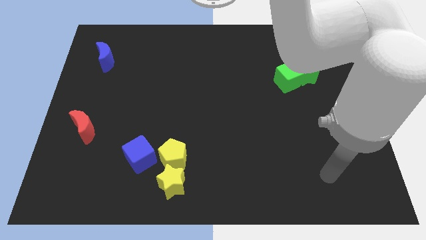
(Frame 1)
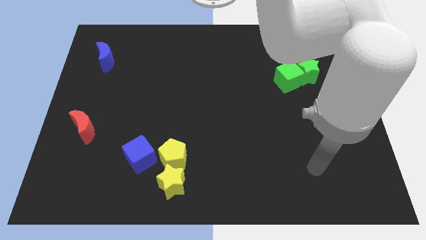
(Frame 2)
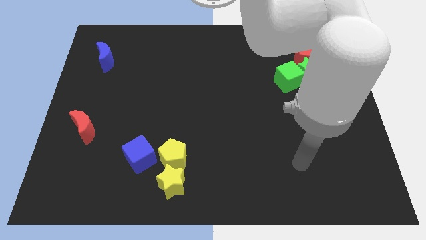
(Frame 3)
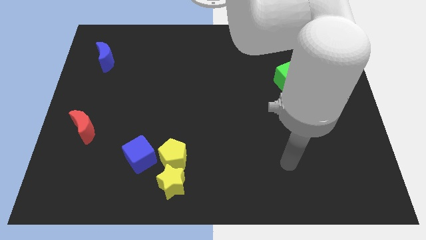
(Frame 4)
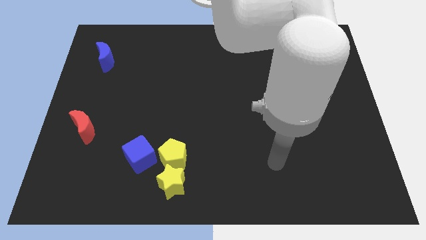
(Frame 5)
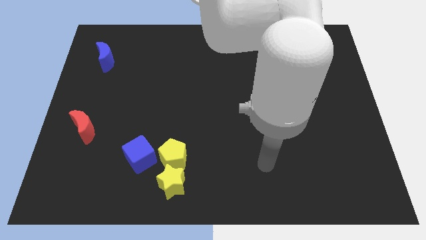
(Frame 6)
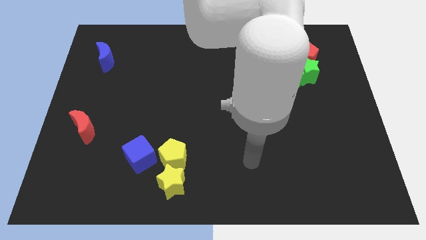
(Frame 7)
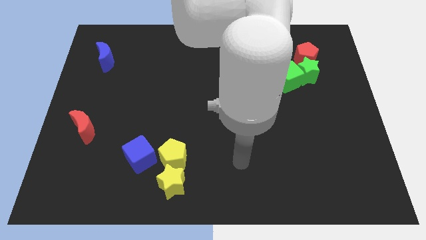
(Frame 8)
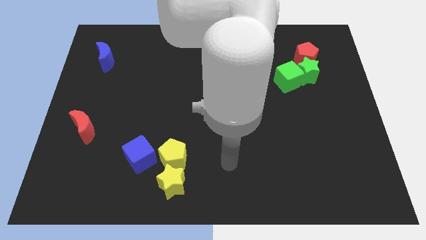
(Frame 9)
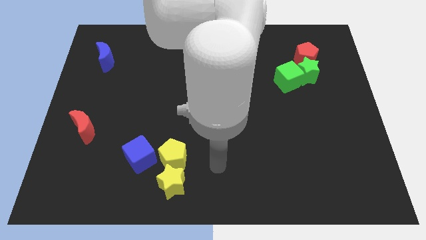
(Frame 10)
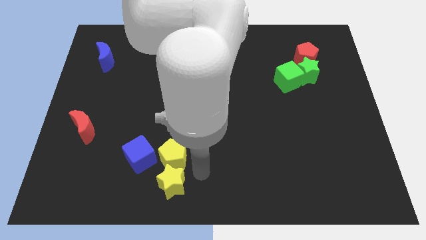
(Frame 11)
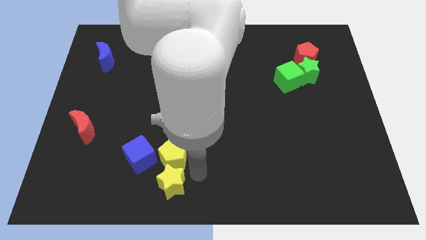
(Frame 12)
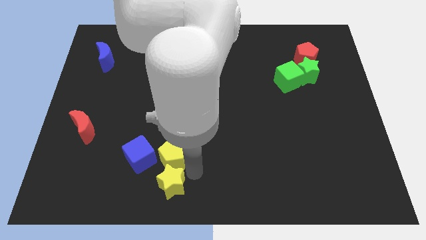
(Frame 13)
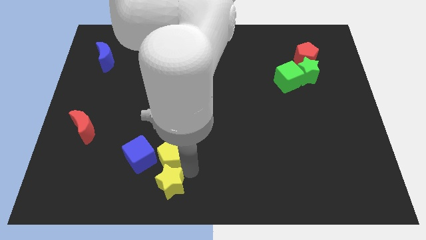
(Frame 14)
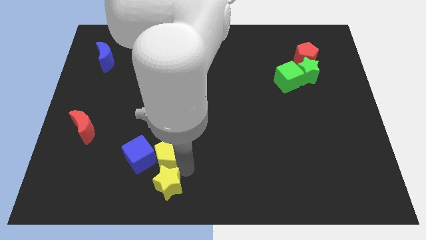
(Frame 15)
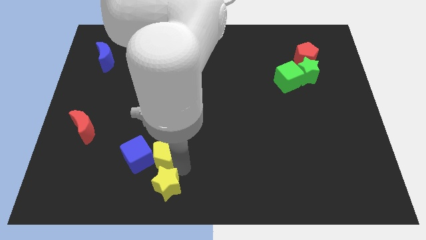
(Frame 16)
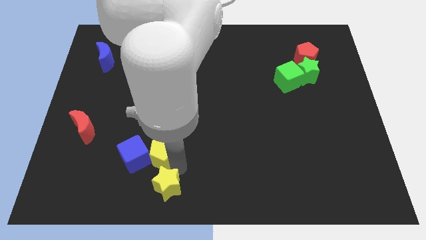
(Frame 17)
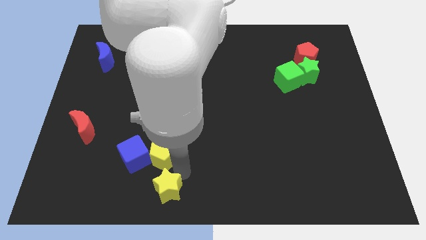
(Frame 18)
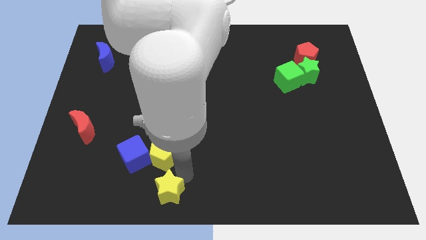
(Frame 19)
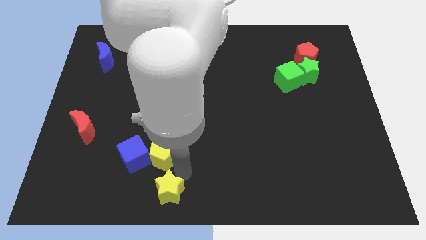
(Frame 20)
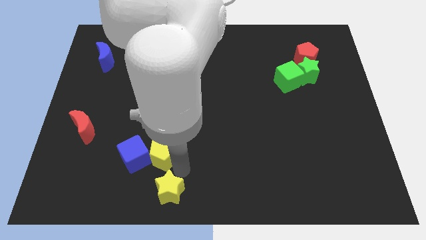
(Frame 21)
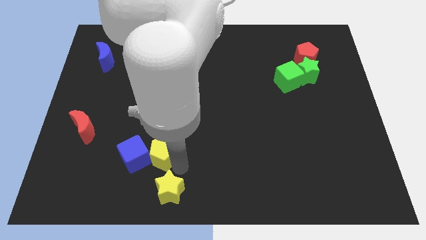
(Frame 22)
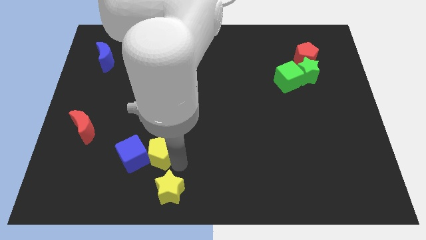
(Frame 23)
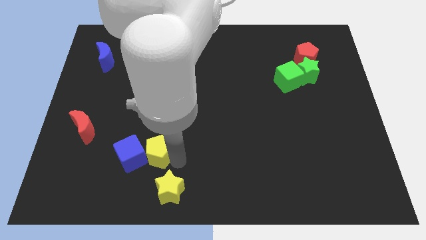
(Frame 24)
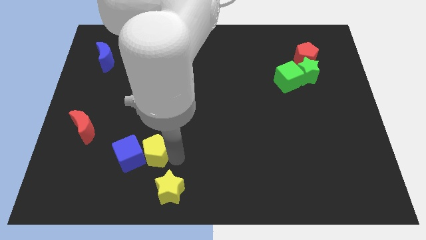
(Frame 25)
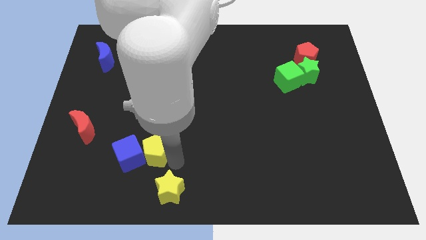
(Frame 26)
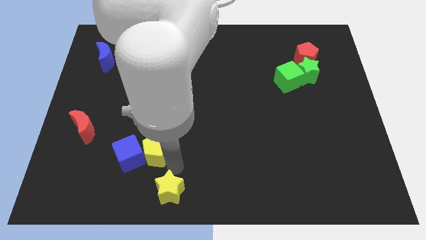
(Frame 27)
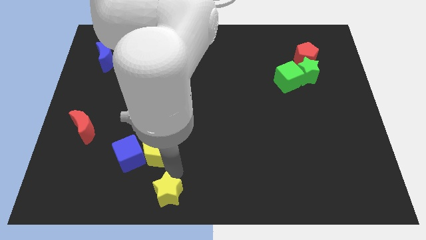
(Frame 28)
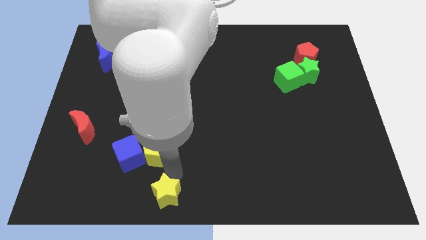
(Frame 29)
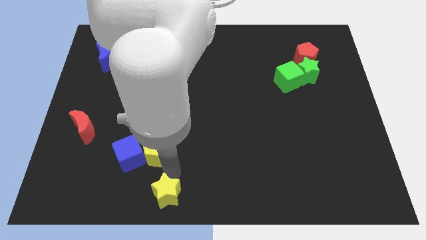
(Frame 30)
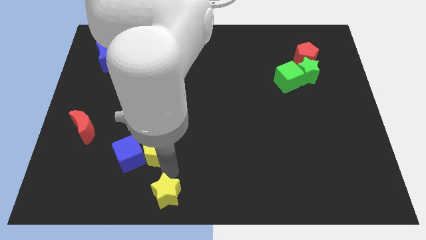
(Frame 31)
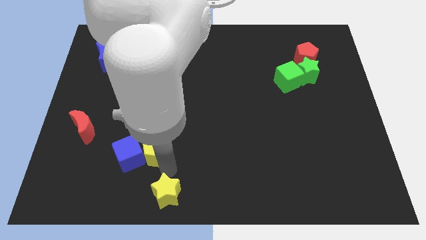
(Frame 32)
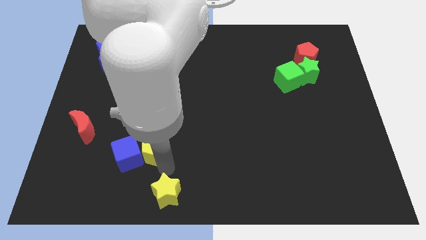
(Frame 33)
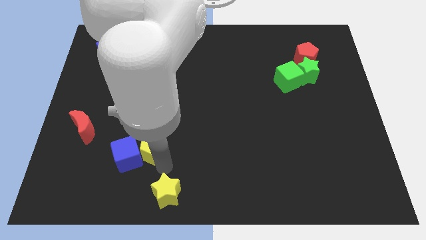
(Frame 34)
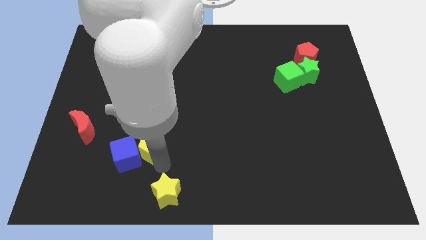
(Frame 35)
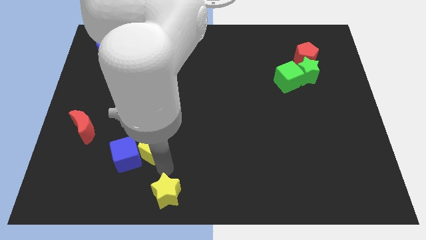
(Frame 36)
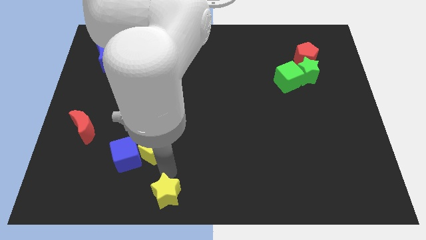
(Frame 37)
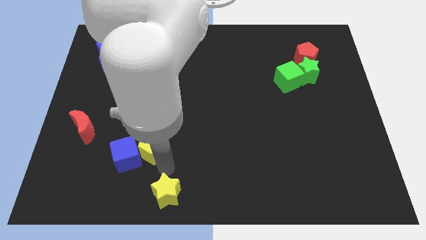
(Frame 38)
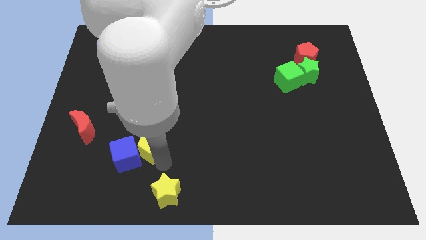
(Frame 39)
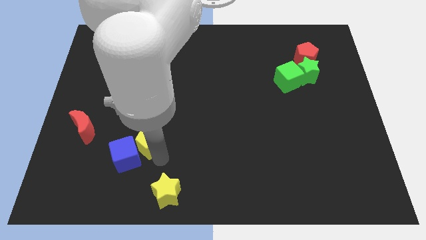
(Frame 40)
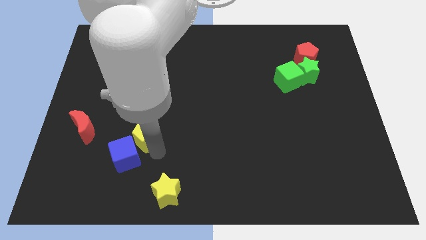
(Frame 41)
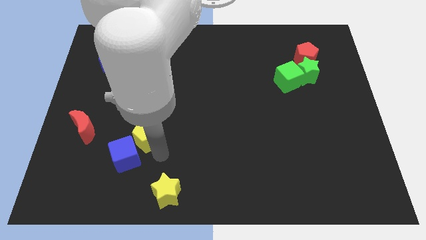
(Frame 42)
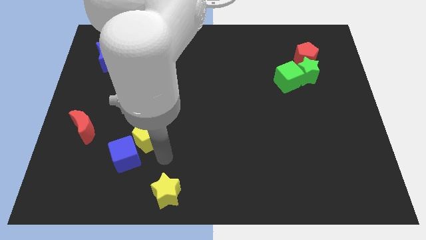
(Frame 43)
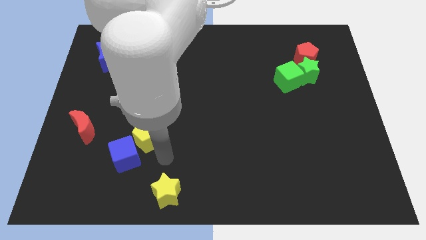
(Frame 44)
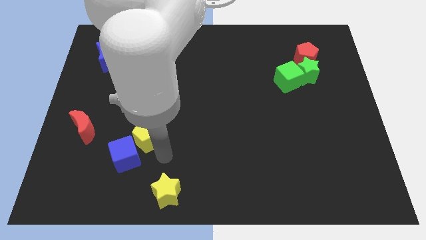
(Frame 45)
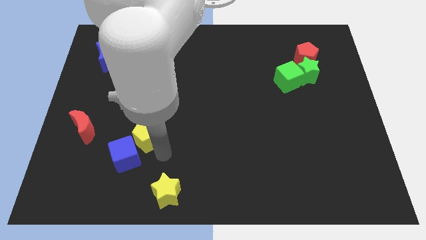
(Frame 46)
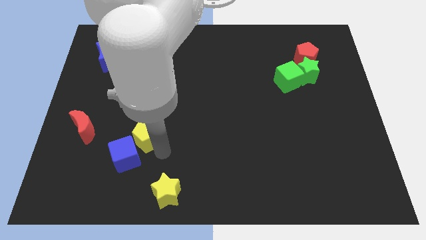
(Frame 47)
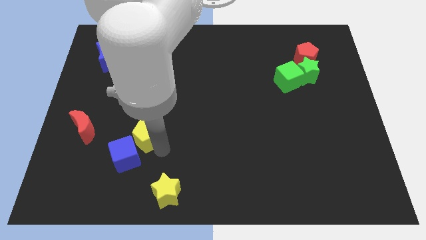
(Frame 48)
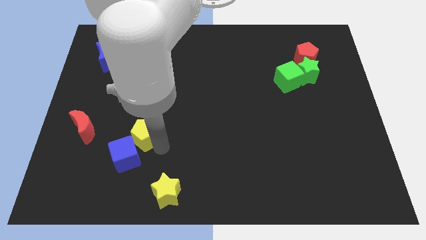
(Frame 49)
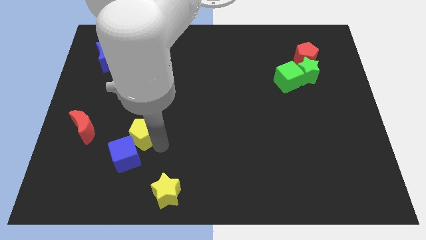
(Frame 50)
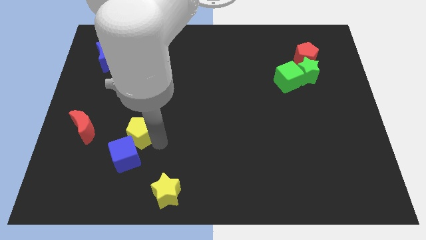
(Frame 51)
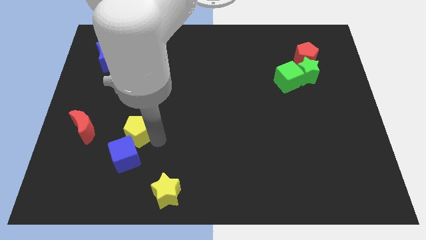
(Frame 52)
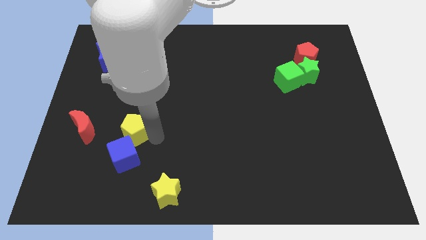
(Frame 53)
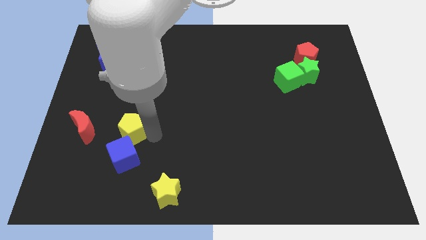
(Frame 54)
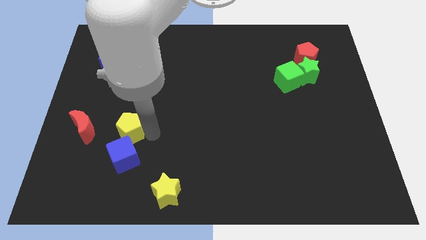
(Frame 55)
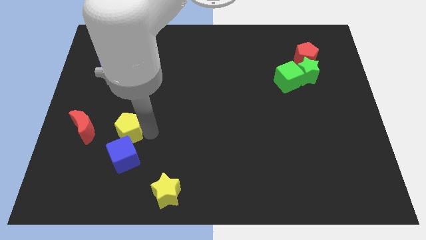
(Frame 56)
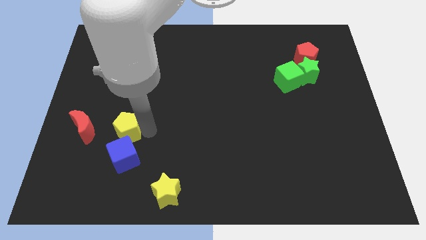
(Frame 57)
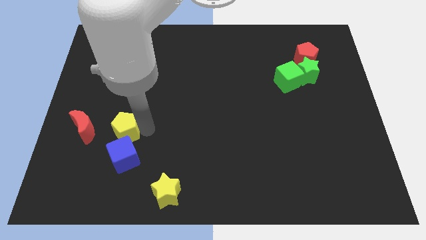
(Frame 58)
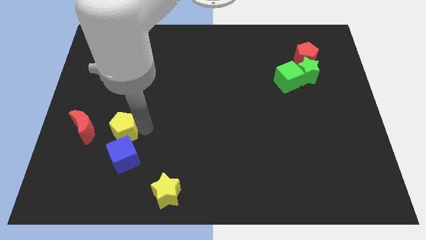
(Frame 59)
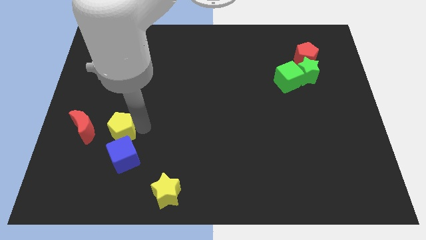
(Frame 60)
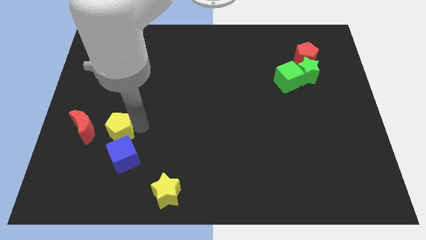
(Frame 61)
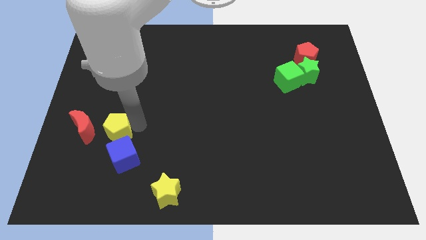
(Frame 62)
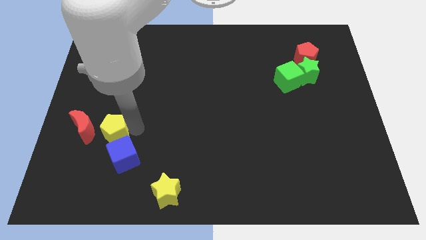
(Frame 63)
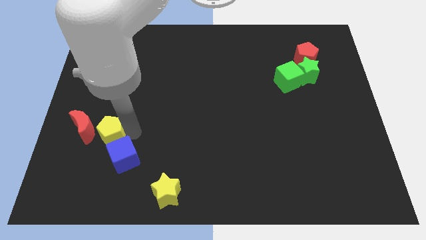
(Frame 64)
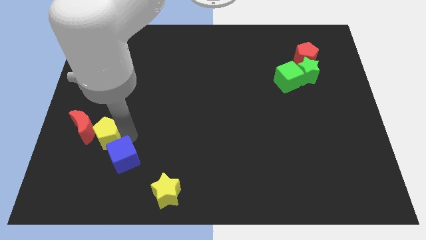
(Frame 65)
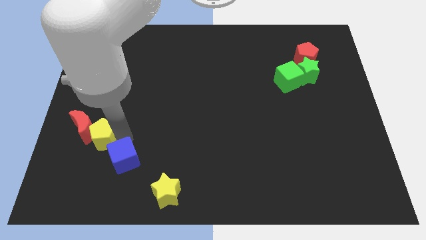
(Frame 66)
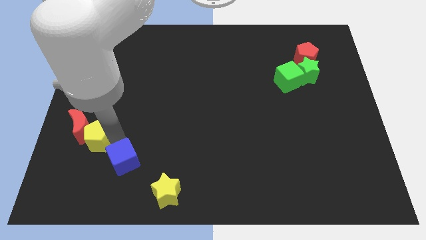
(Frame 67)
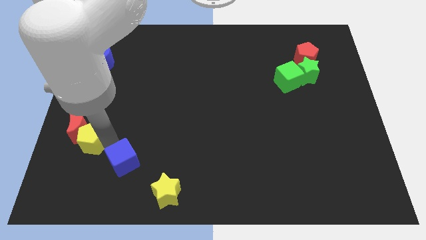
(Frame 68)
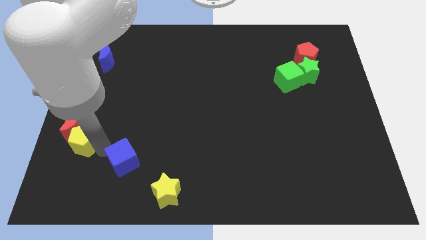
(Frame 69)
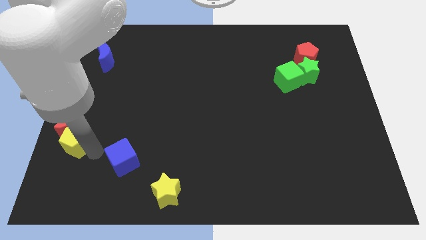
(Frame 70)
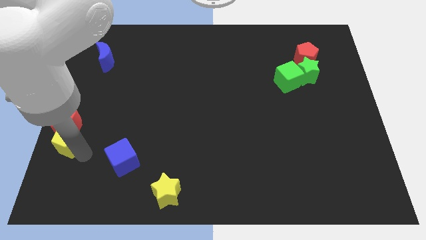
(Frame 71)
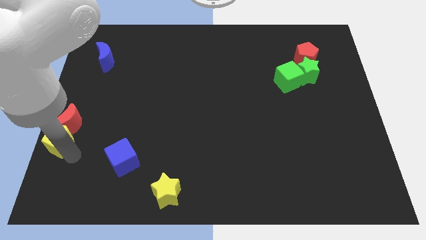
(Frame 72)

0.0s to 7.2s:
slide the yellow pentagon to the left side of the board

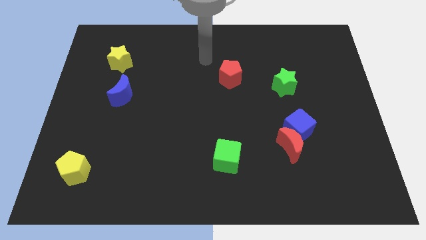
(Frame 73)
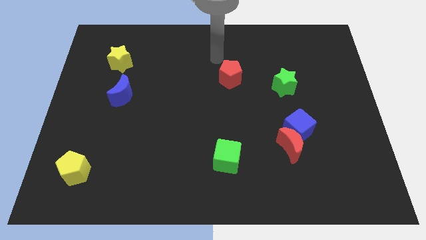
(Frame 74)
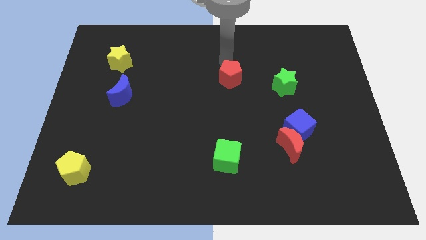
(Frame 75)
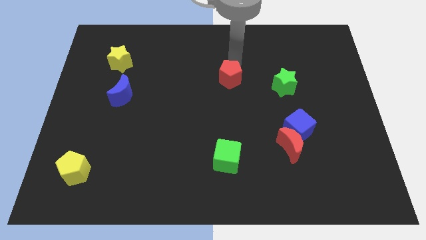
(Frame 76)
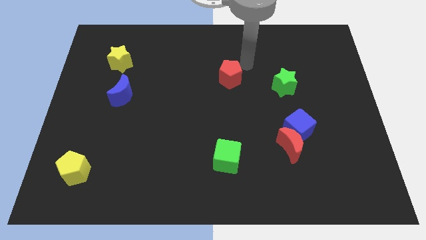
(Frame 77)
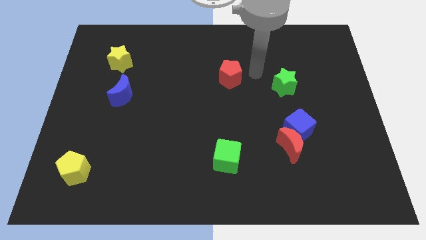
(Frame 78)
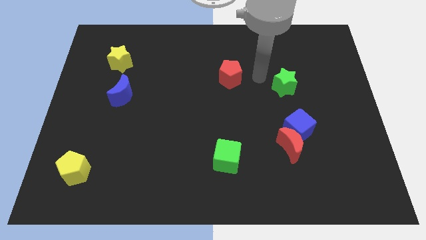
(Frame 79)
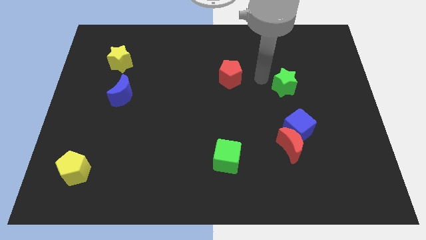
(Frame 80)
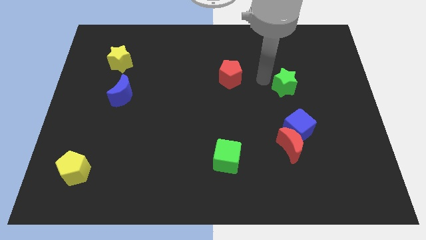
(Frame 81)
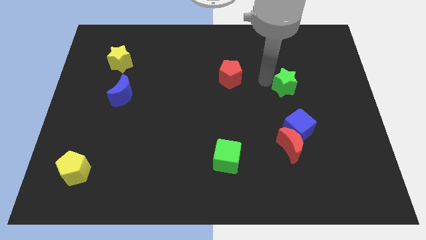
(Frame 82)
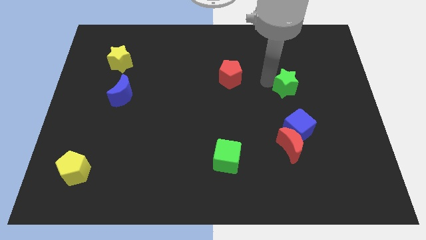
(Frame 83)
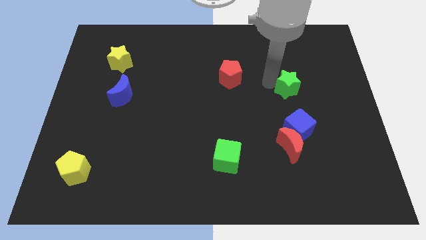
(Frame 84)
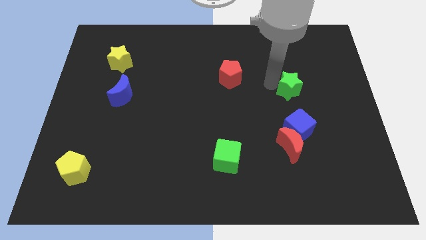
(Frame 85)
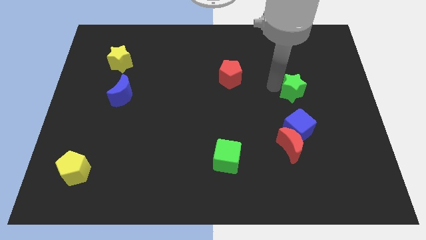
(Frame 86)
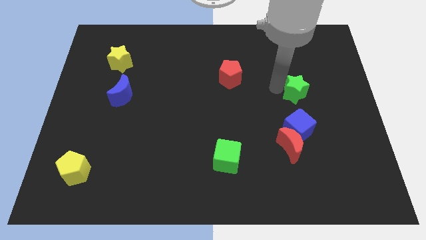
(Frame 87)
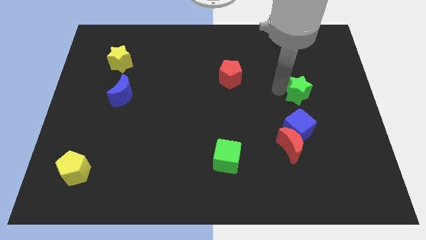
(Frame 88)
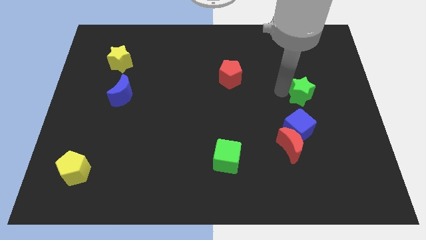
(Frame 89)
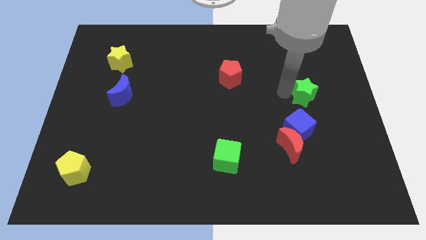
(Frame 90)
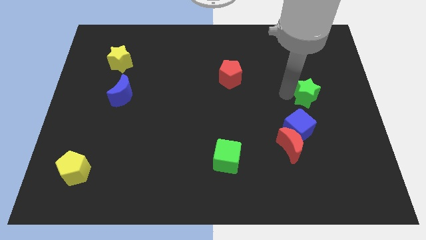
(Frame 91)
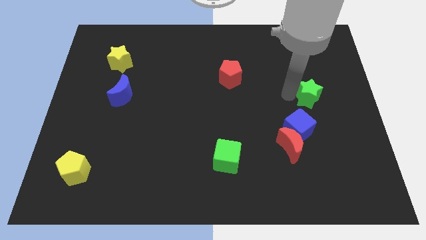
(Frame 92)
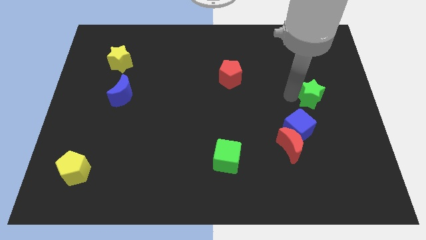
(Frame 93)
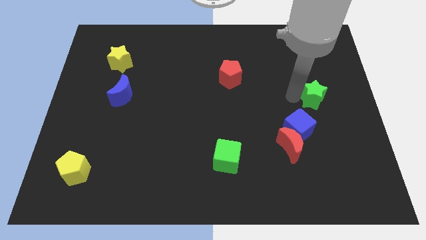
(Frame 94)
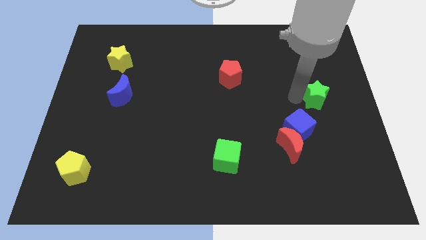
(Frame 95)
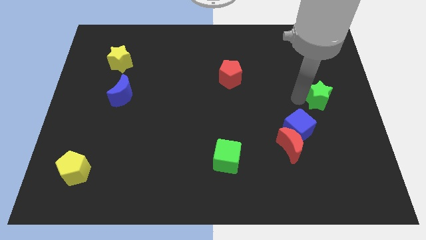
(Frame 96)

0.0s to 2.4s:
put the green star to the center right
